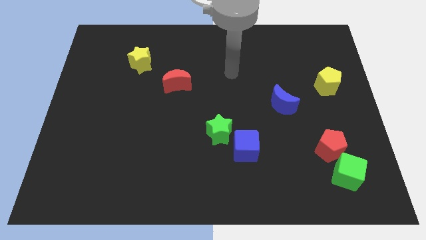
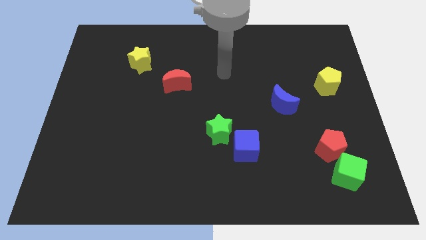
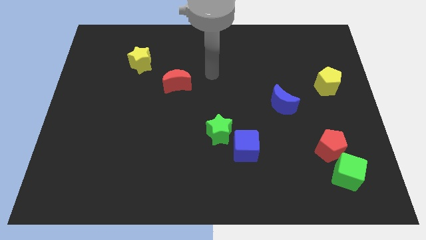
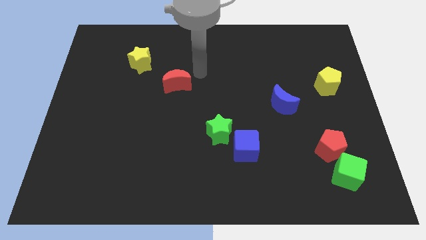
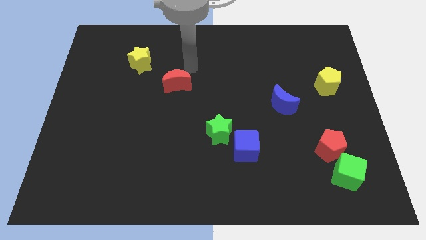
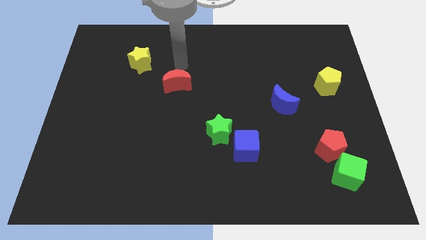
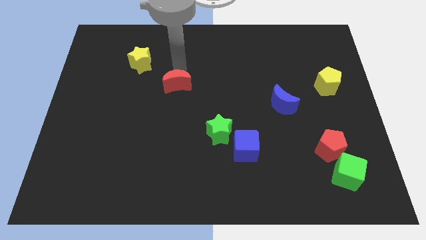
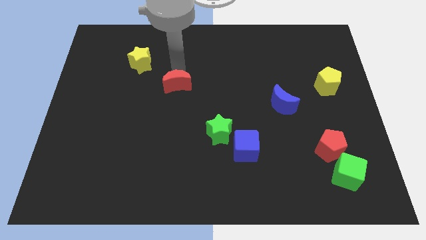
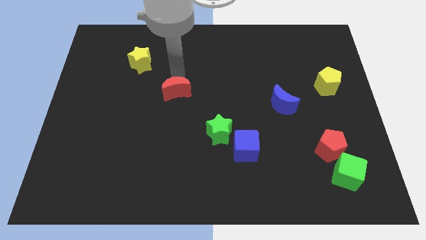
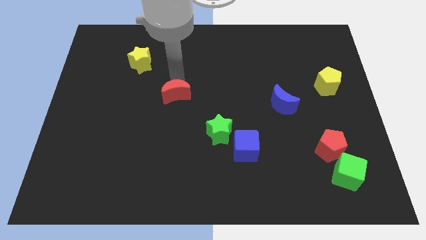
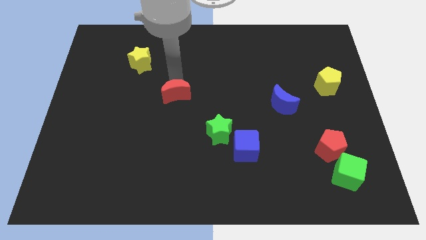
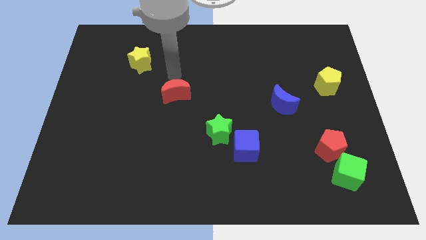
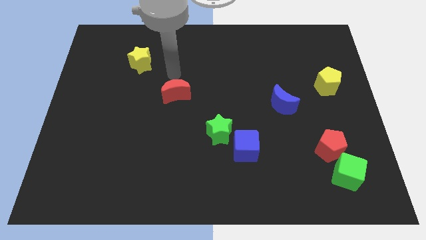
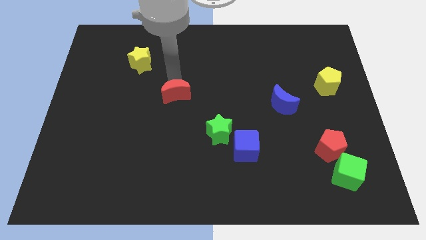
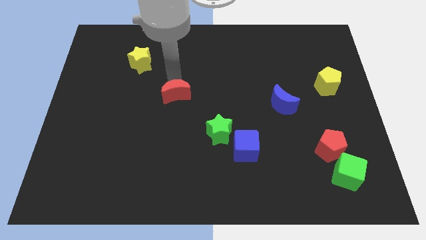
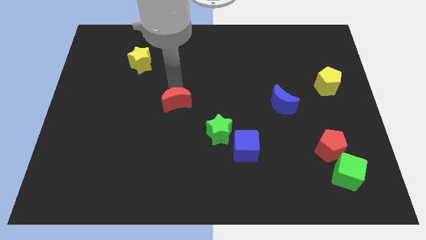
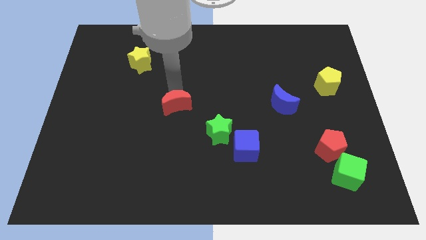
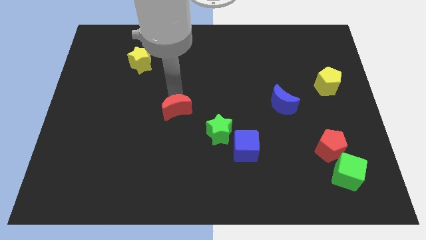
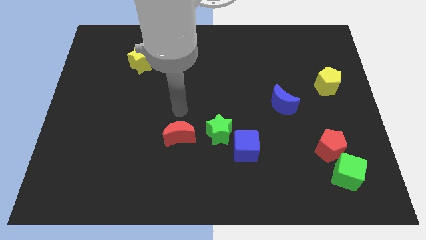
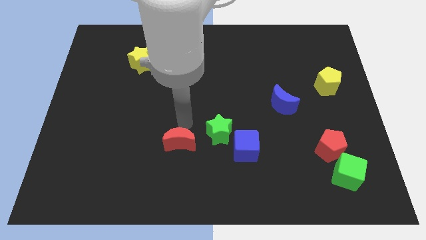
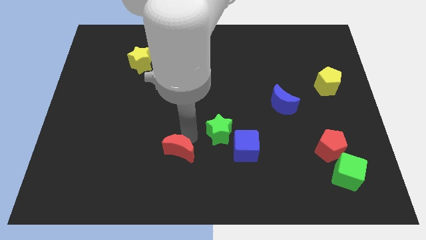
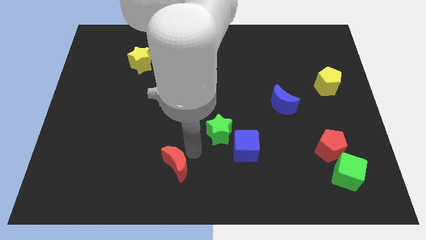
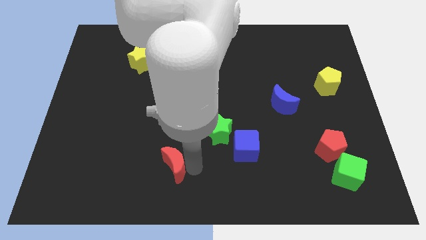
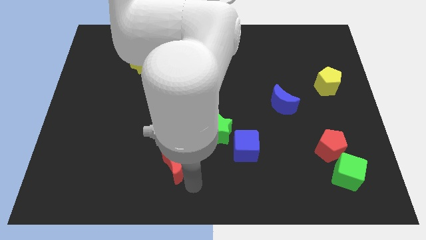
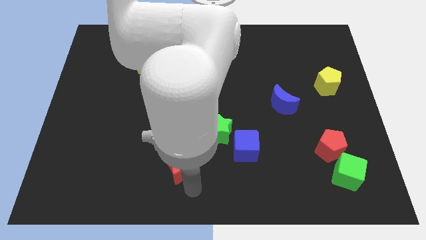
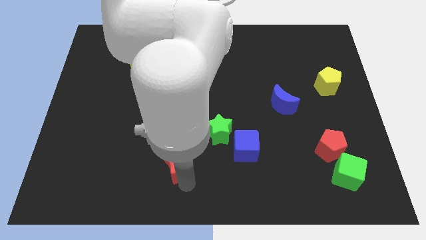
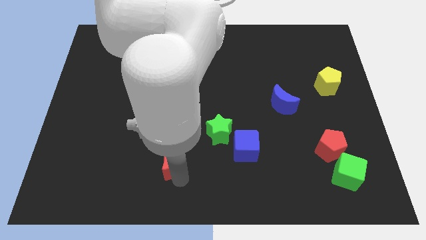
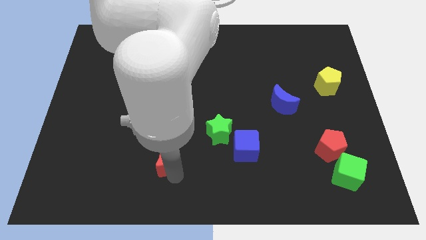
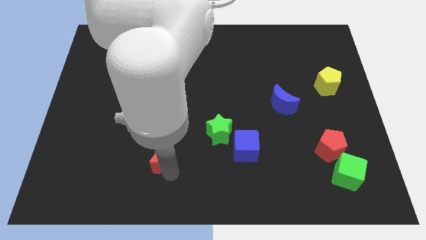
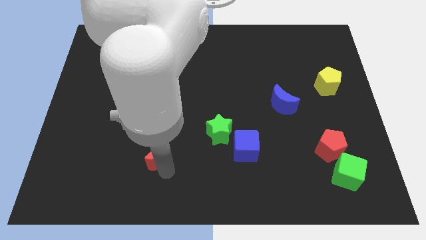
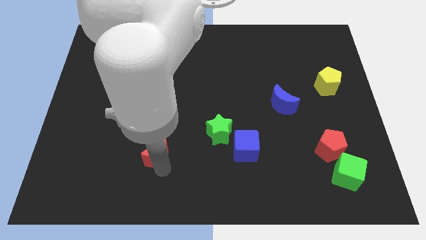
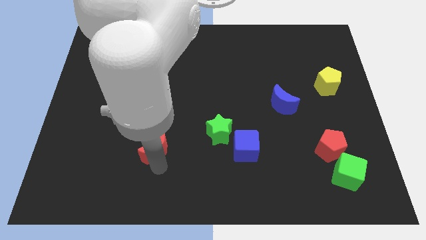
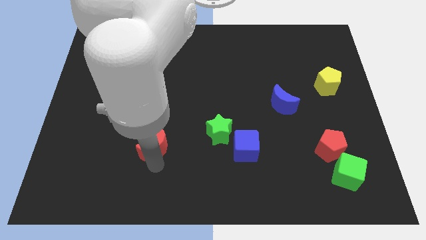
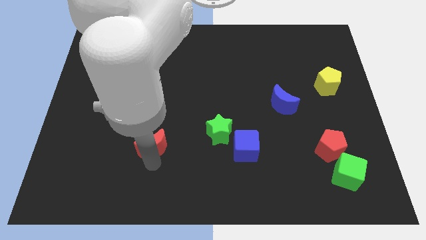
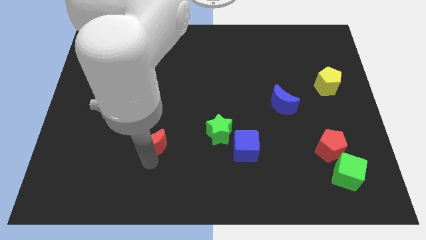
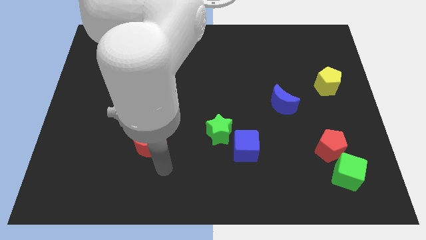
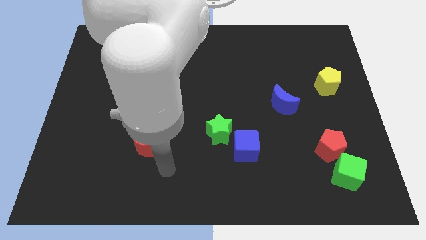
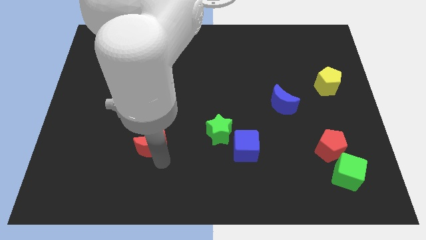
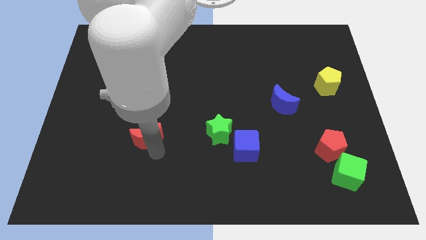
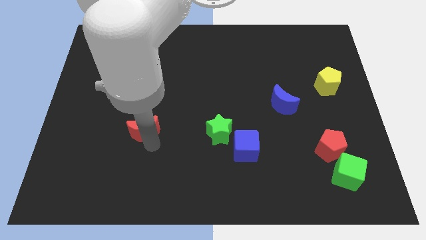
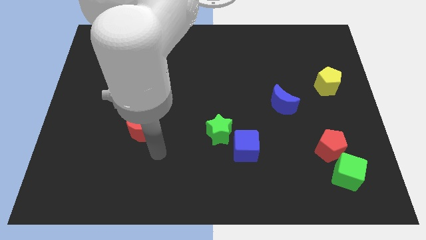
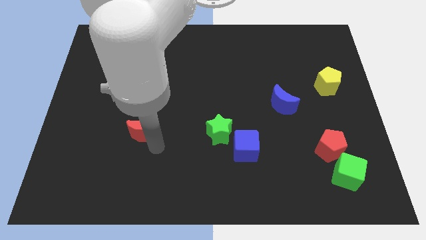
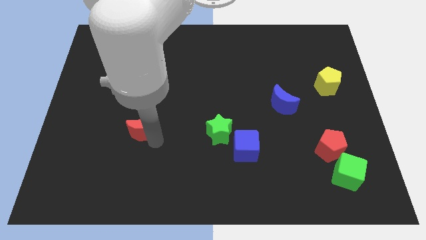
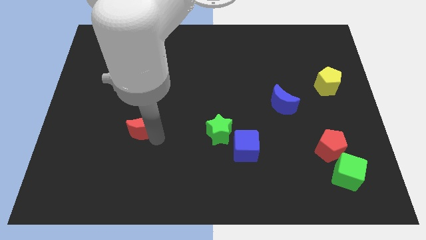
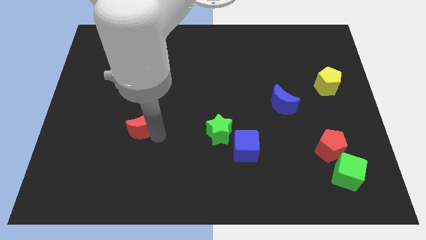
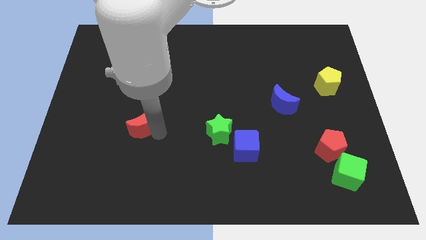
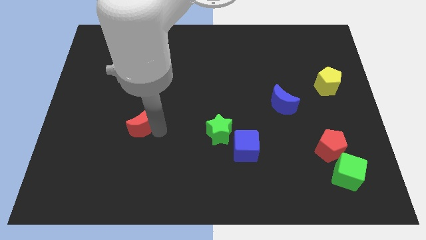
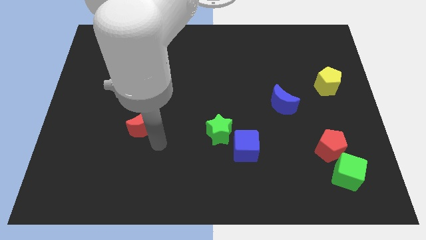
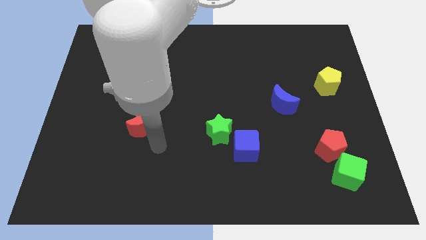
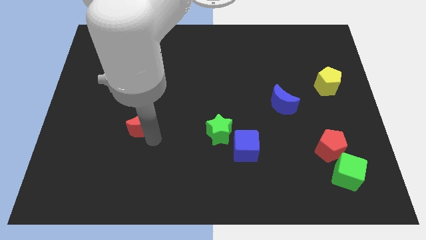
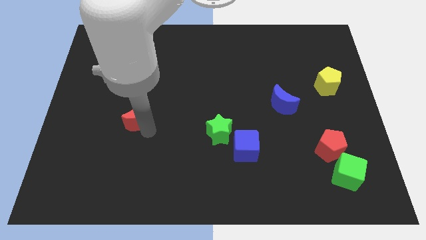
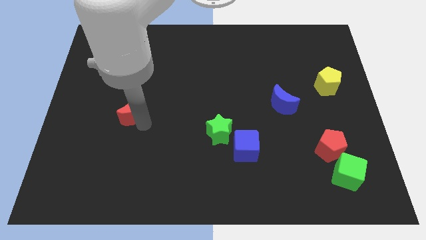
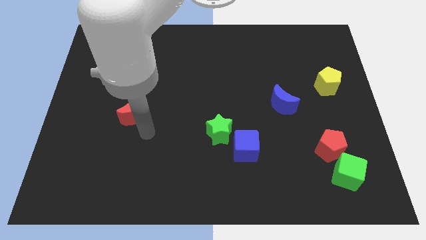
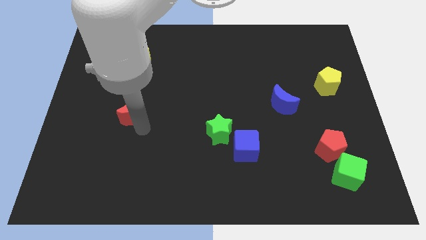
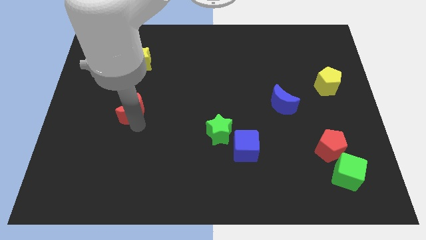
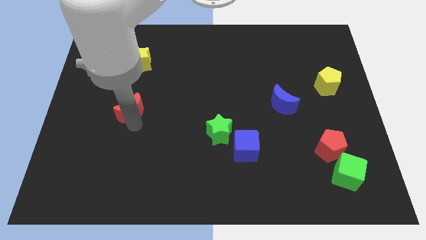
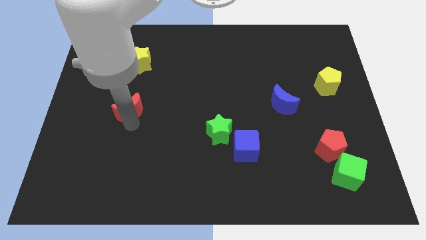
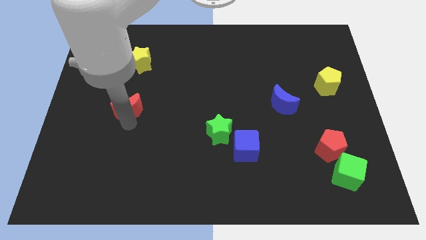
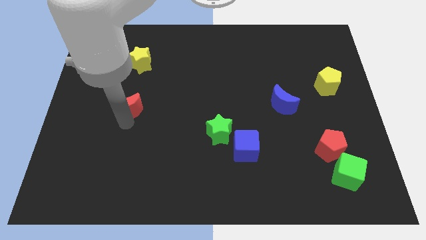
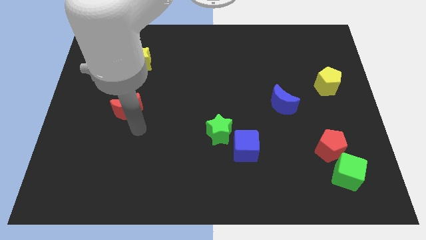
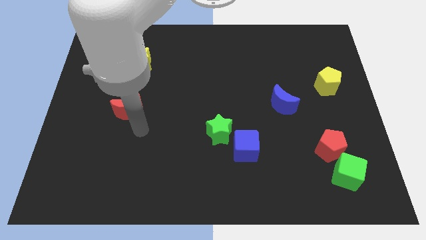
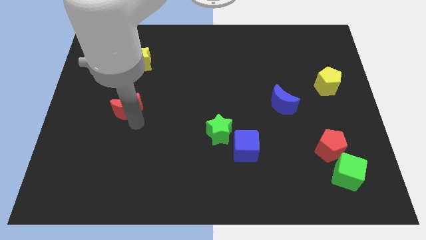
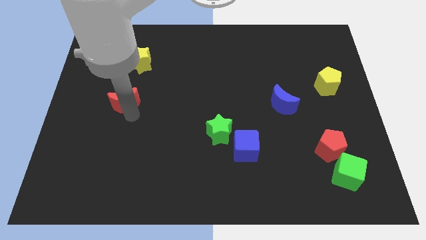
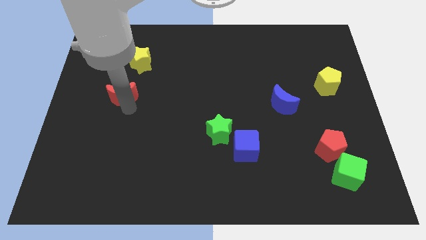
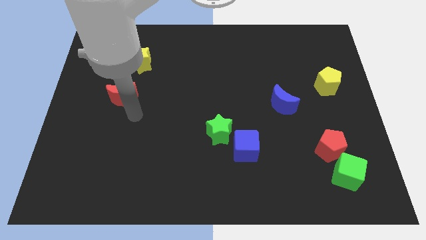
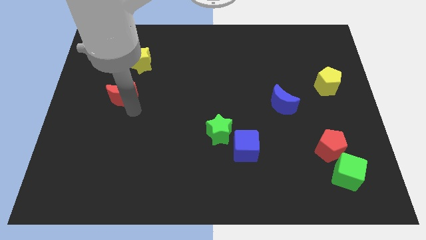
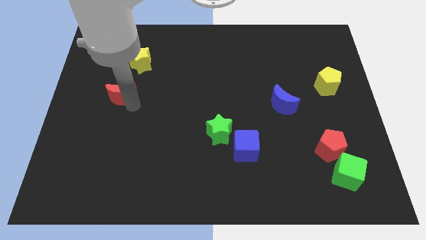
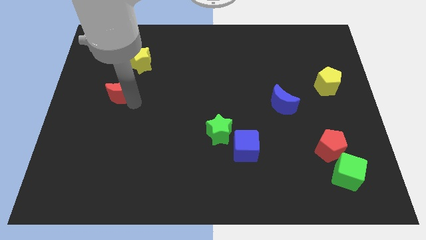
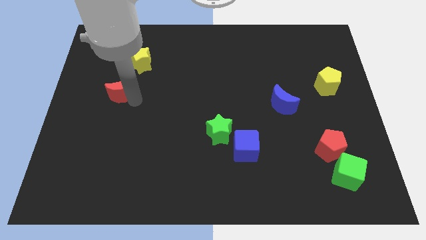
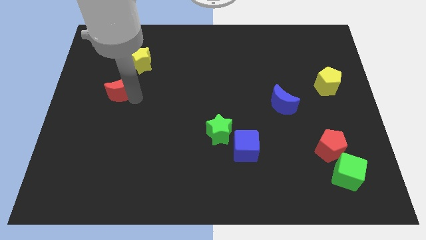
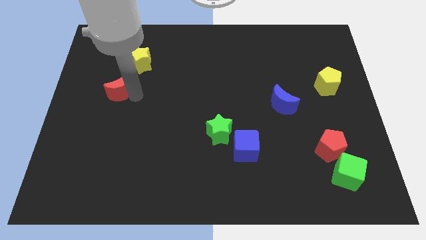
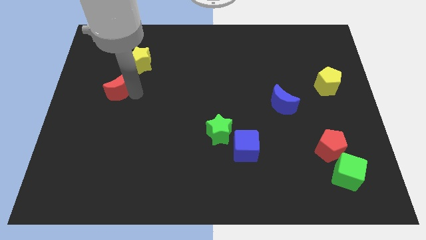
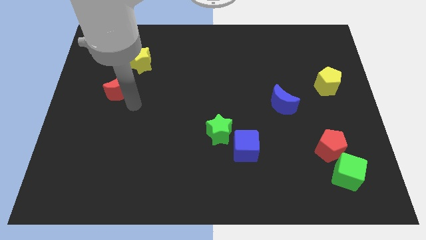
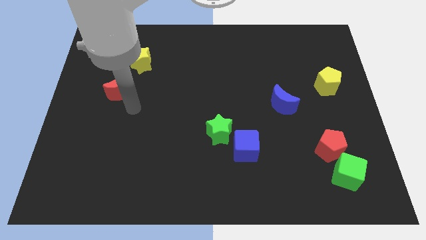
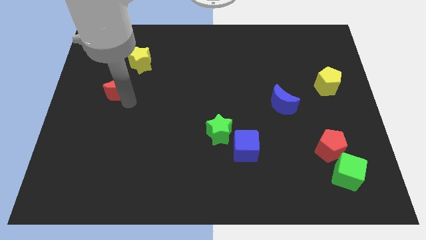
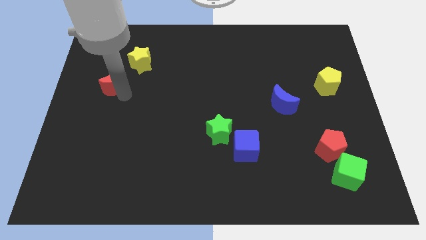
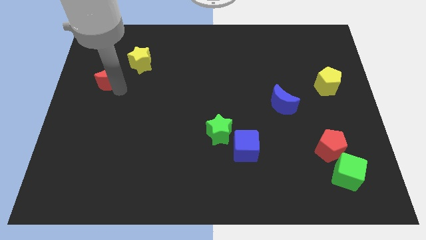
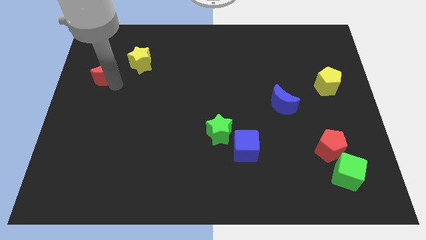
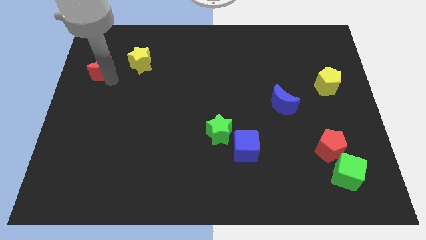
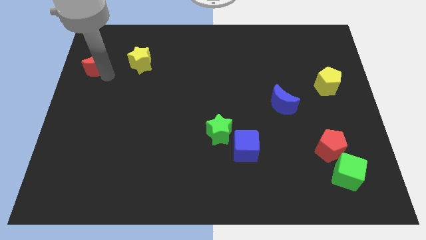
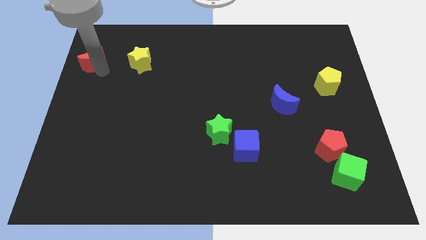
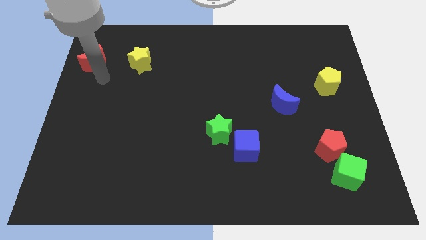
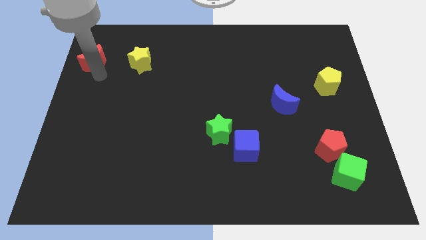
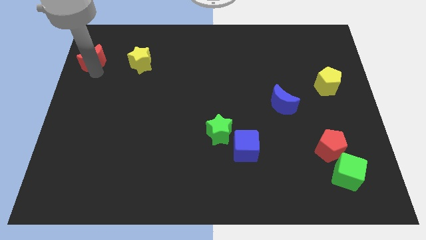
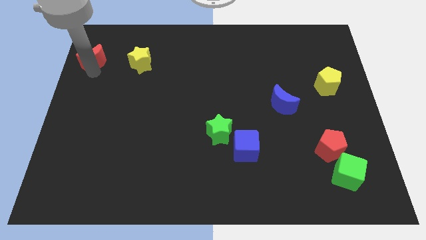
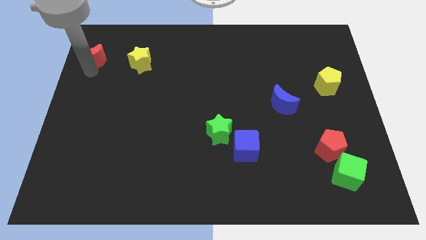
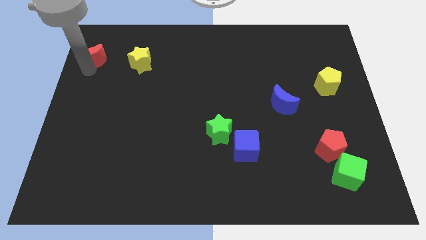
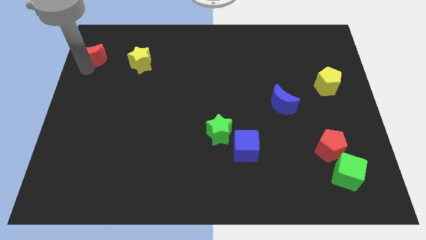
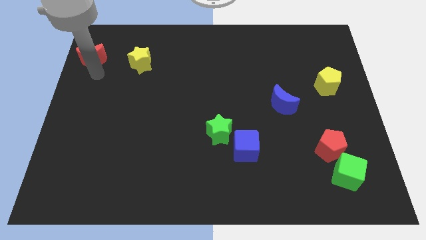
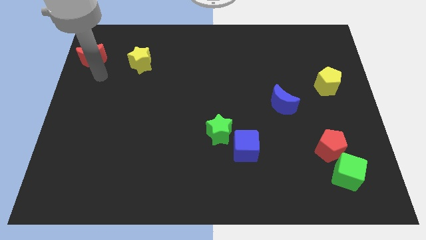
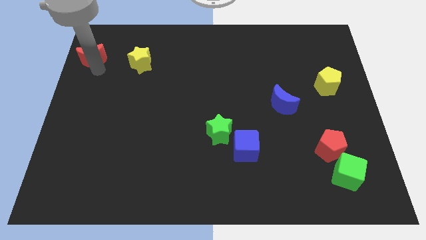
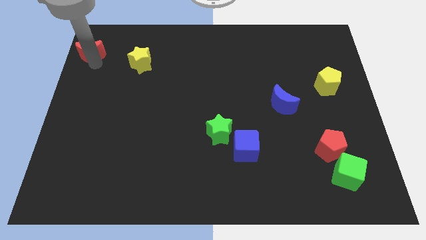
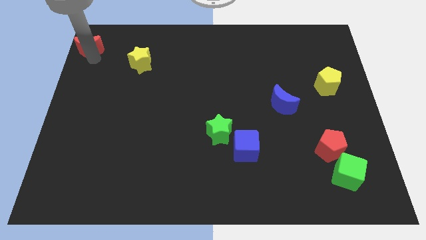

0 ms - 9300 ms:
put the red moon to the top left
